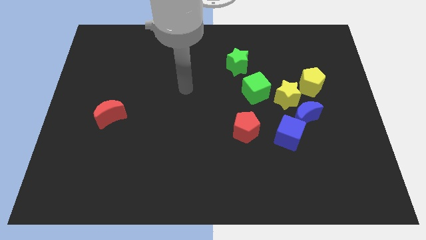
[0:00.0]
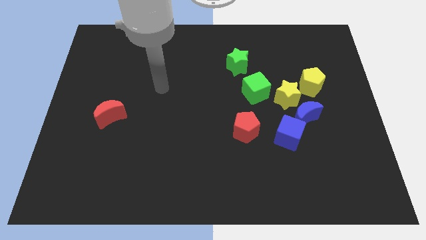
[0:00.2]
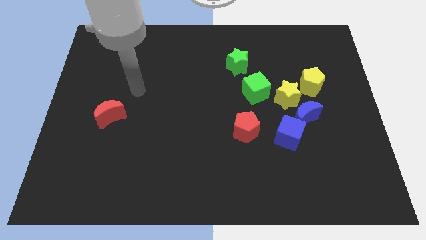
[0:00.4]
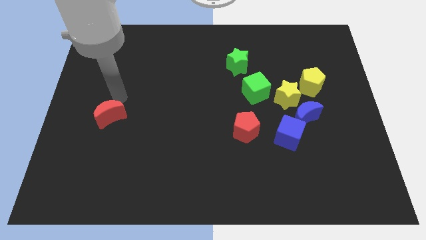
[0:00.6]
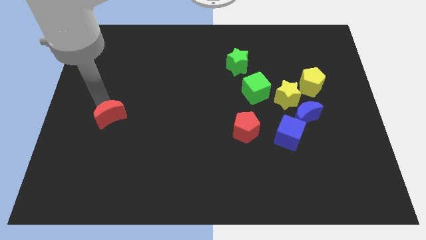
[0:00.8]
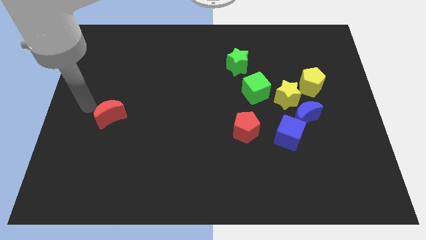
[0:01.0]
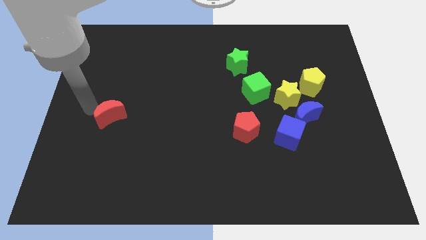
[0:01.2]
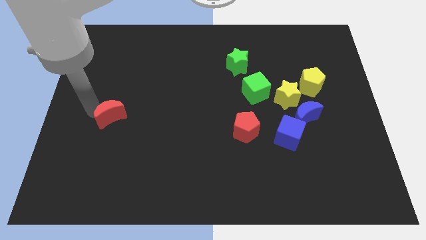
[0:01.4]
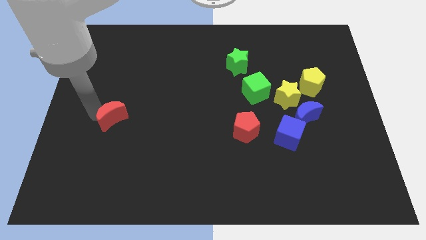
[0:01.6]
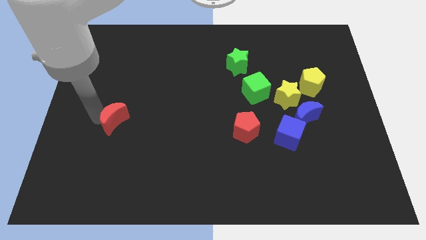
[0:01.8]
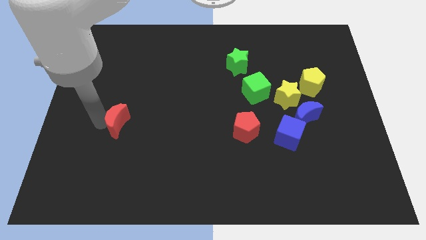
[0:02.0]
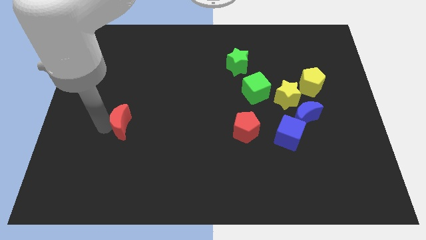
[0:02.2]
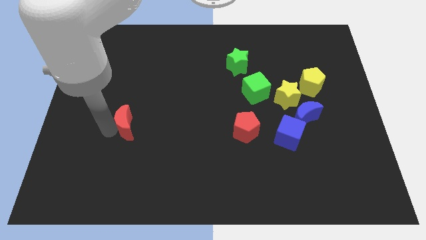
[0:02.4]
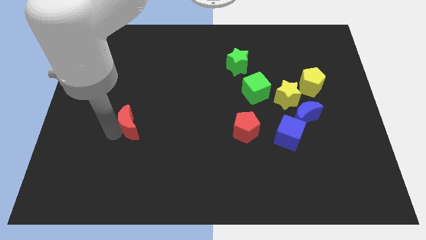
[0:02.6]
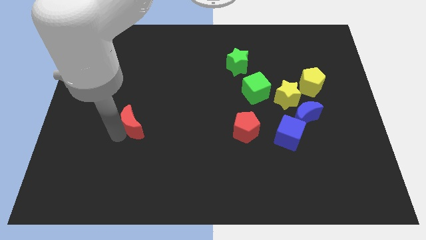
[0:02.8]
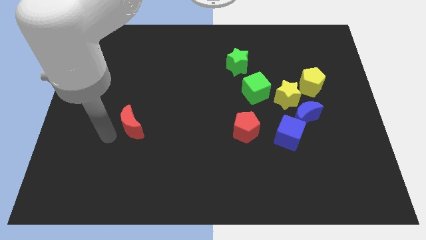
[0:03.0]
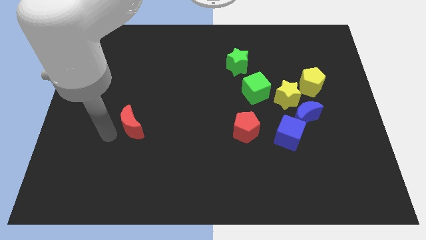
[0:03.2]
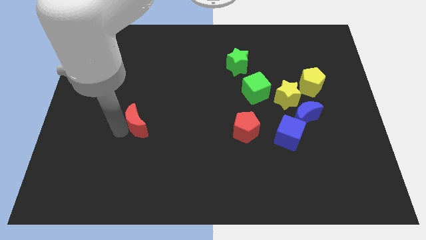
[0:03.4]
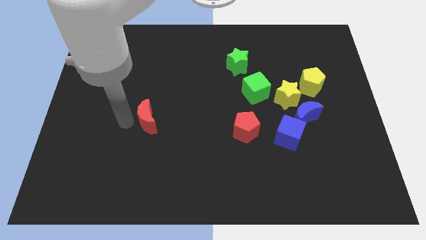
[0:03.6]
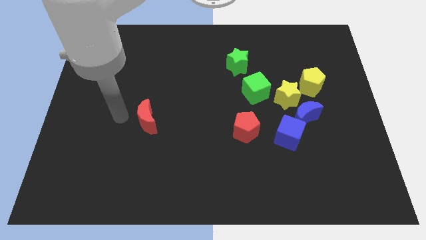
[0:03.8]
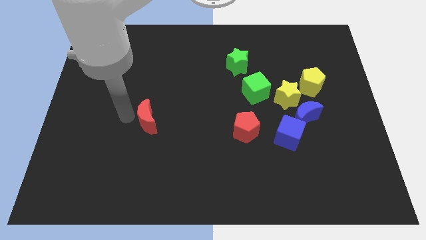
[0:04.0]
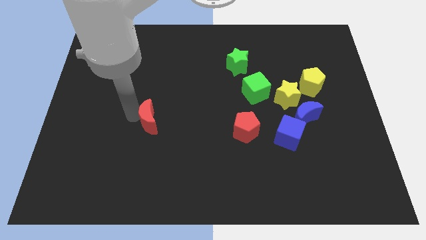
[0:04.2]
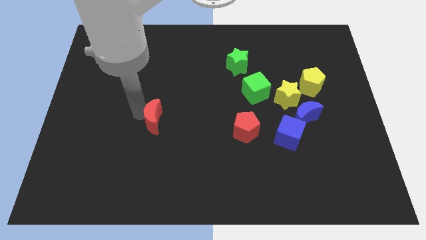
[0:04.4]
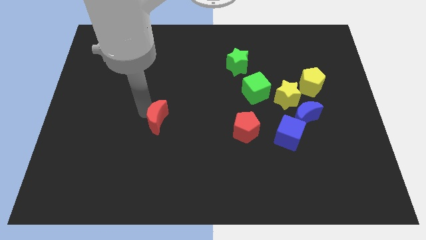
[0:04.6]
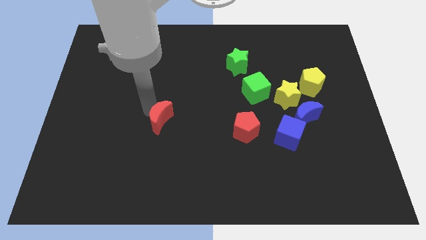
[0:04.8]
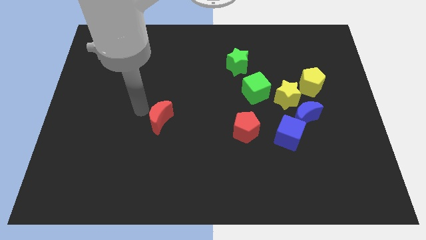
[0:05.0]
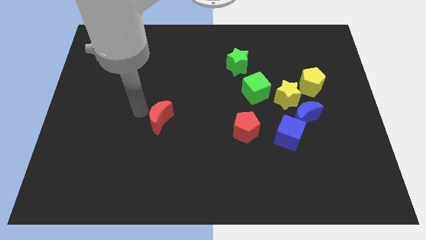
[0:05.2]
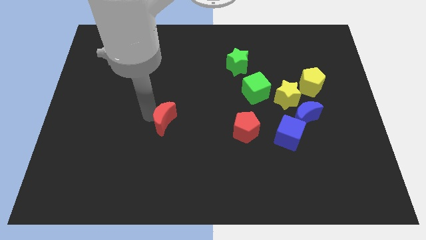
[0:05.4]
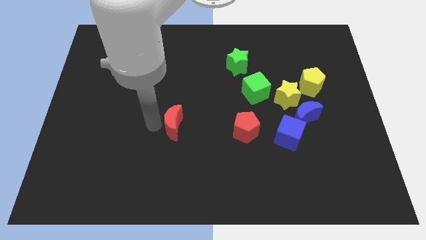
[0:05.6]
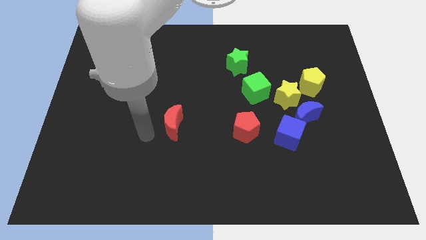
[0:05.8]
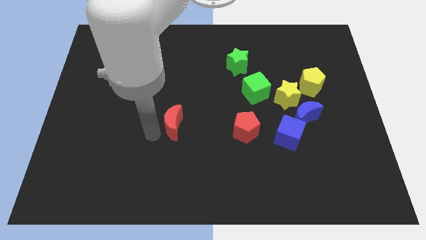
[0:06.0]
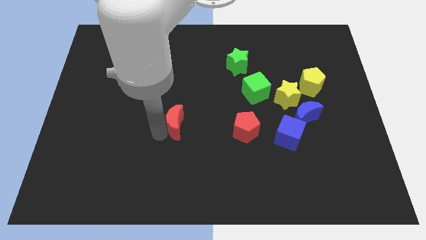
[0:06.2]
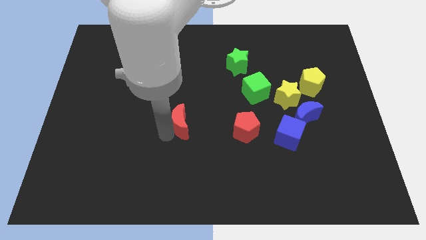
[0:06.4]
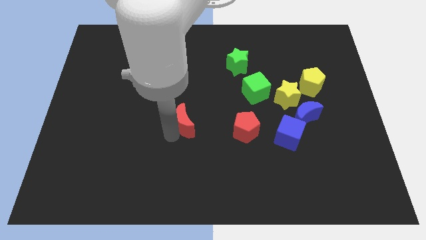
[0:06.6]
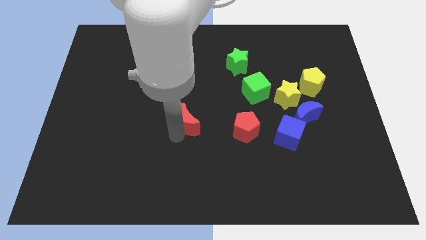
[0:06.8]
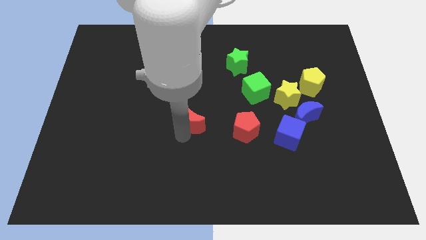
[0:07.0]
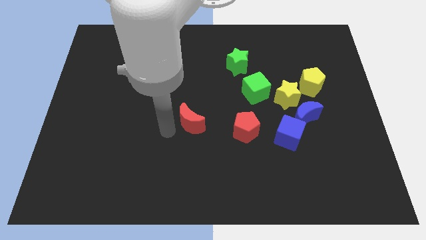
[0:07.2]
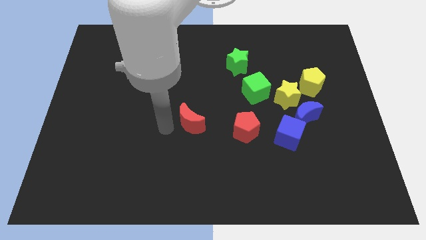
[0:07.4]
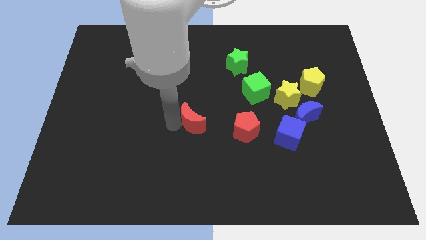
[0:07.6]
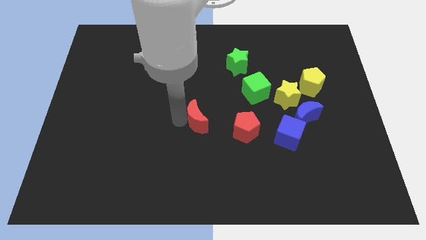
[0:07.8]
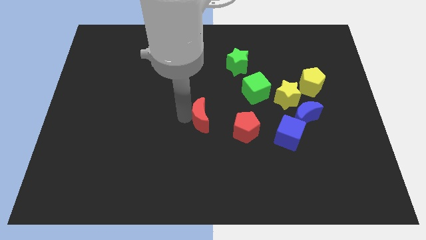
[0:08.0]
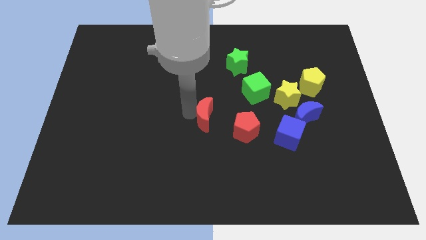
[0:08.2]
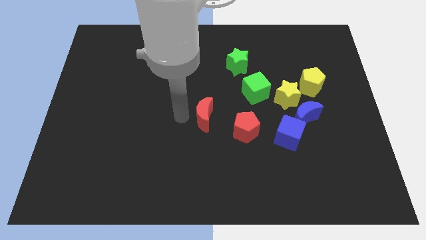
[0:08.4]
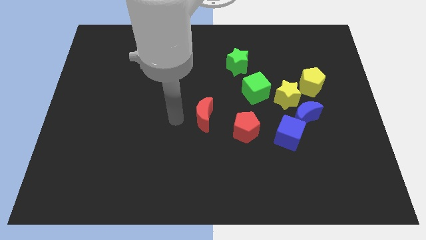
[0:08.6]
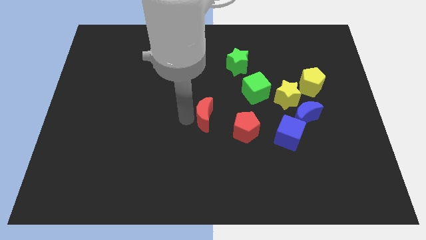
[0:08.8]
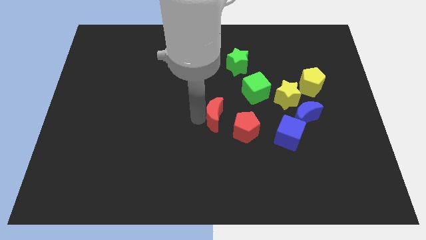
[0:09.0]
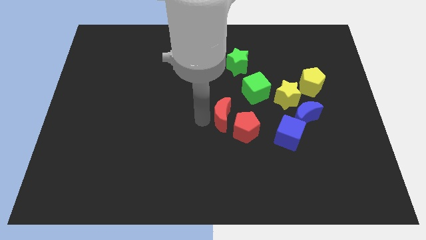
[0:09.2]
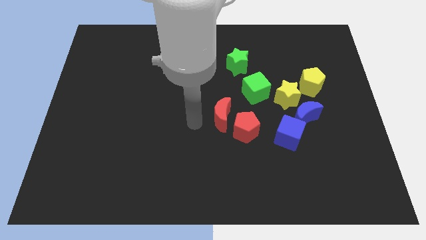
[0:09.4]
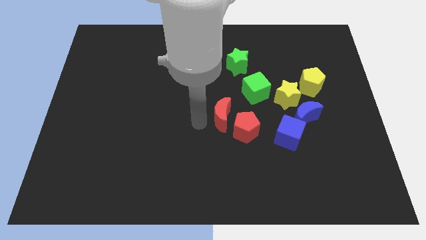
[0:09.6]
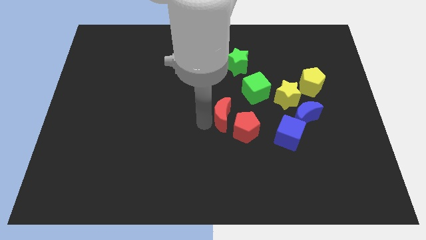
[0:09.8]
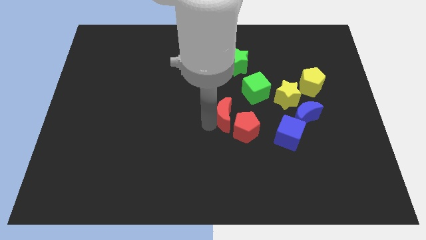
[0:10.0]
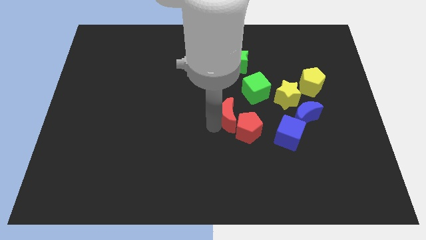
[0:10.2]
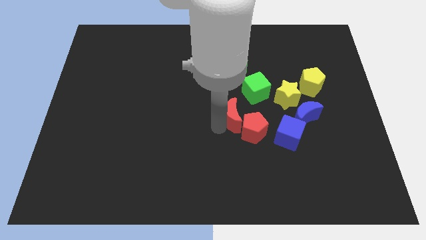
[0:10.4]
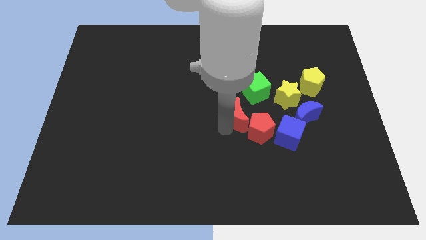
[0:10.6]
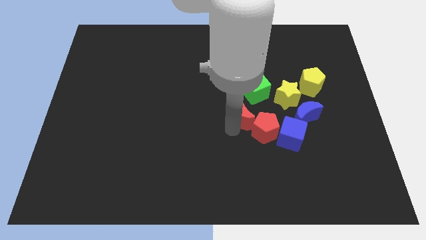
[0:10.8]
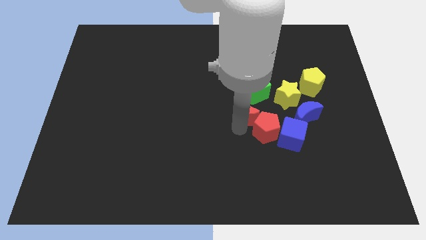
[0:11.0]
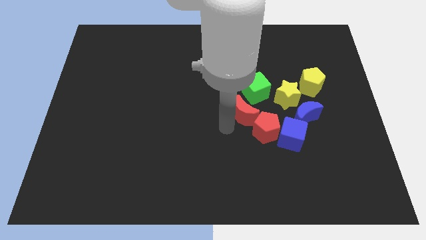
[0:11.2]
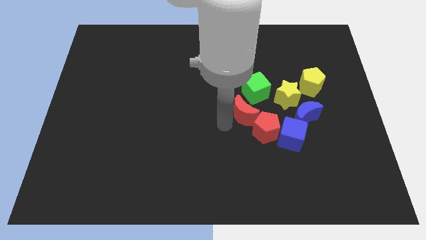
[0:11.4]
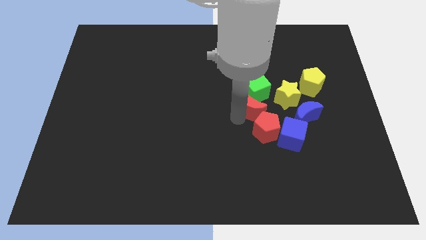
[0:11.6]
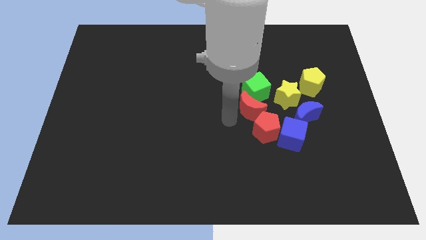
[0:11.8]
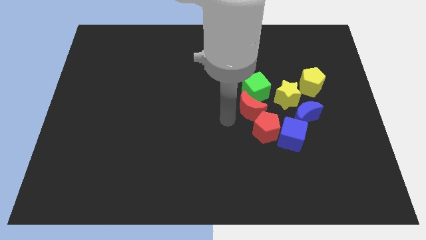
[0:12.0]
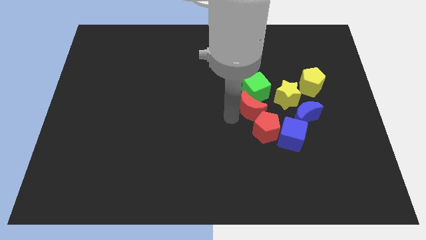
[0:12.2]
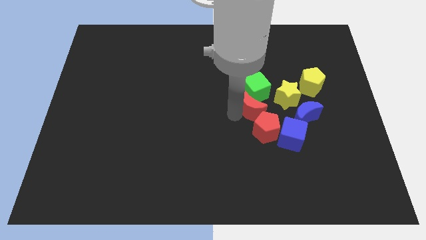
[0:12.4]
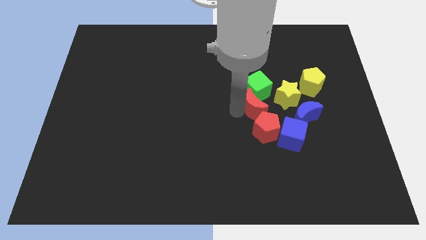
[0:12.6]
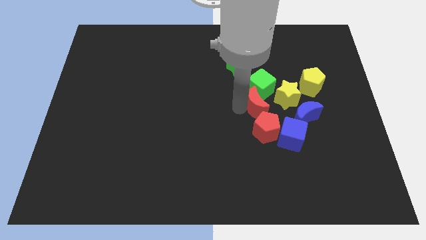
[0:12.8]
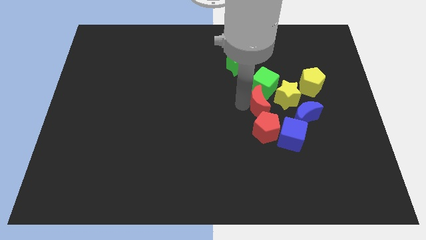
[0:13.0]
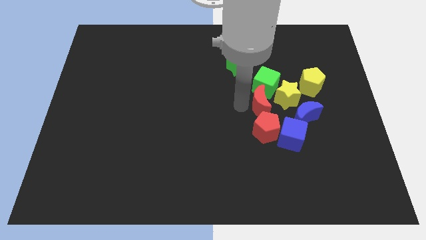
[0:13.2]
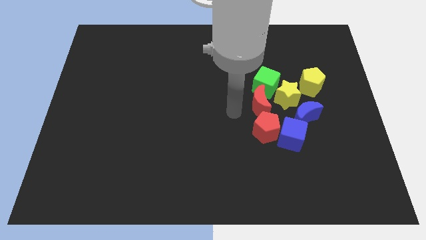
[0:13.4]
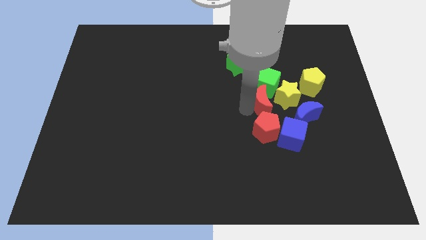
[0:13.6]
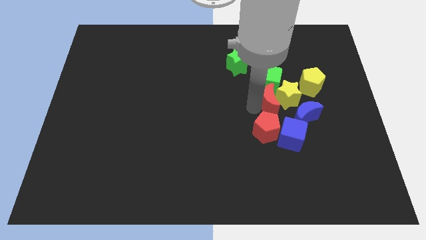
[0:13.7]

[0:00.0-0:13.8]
move the red moon next to the yellow star

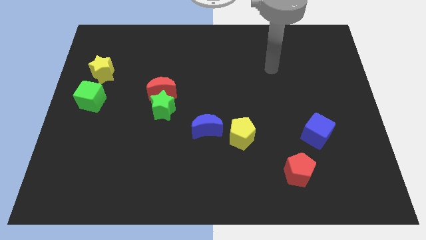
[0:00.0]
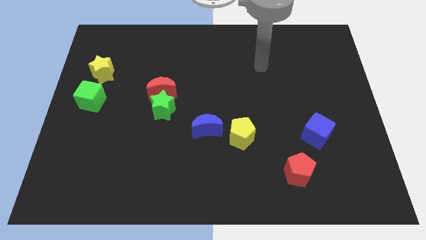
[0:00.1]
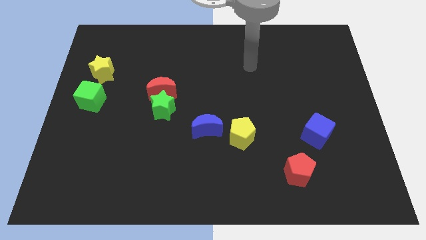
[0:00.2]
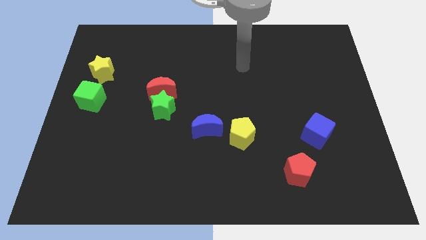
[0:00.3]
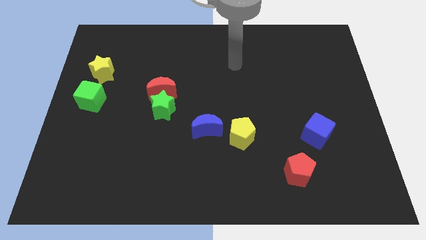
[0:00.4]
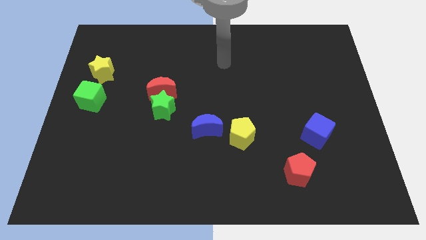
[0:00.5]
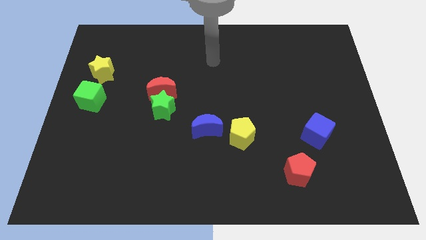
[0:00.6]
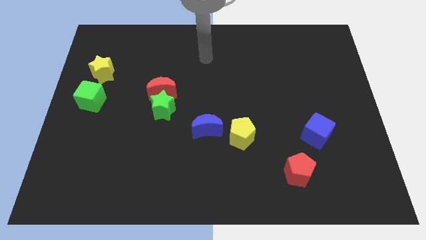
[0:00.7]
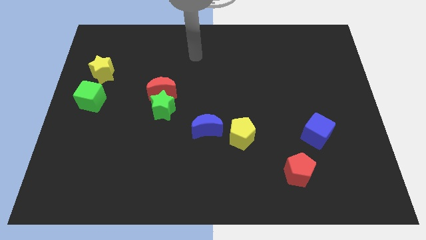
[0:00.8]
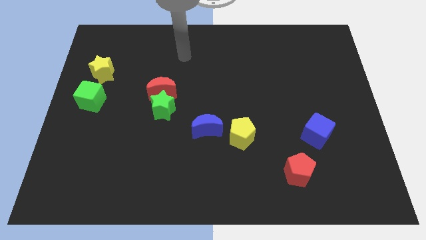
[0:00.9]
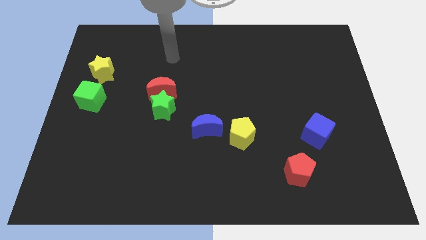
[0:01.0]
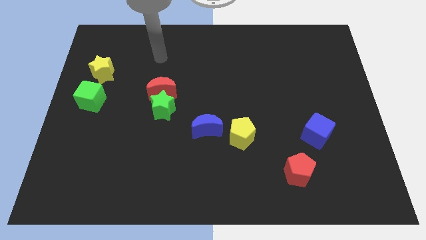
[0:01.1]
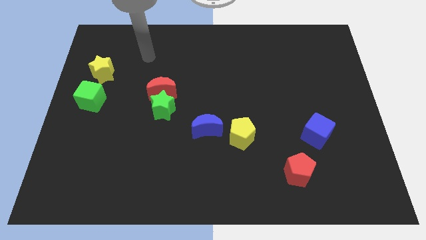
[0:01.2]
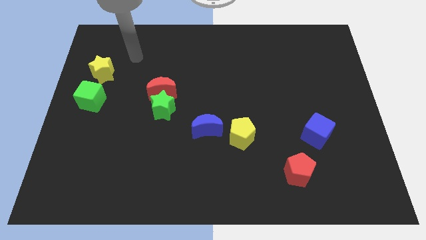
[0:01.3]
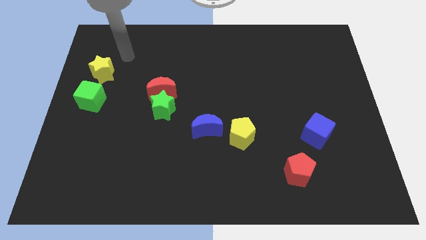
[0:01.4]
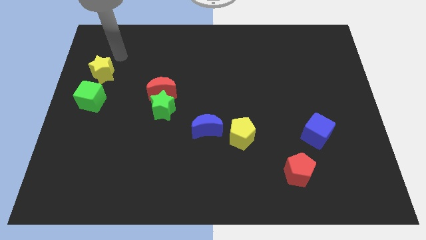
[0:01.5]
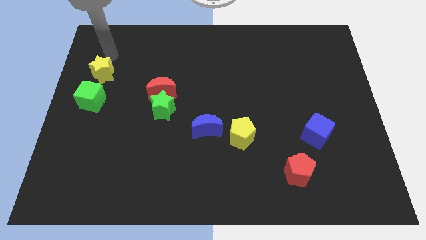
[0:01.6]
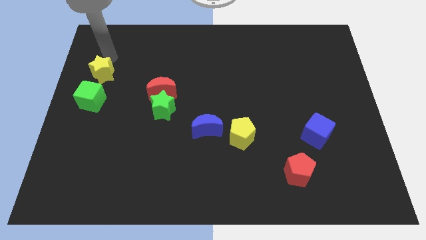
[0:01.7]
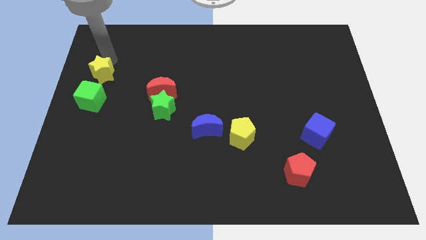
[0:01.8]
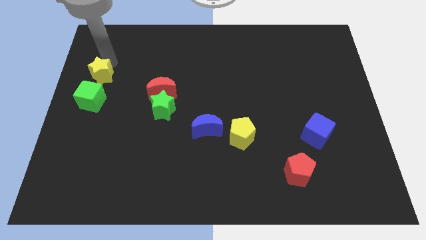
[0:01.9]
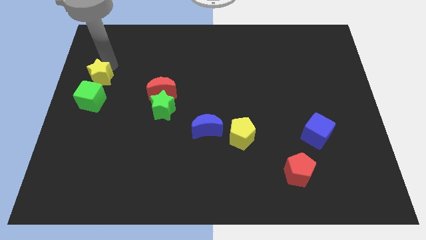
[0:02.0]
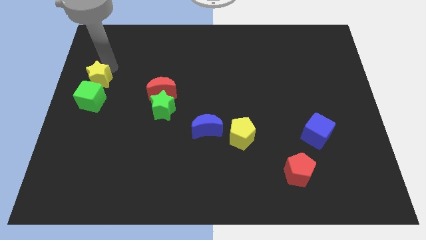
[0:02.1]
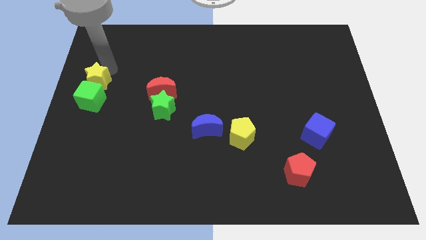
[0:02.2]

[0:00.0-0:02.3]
put the yellow star next to the green cube
